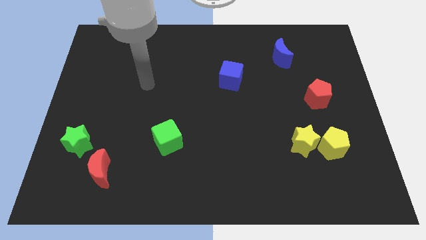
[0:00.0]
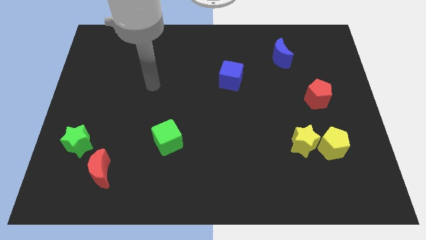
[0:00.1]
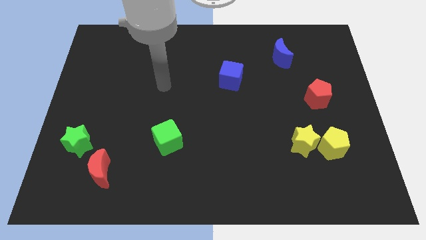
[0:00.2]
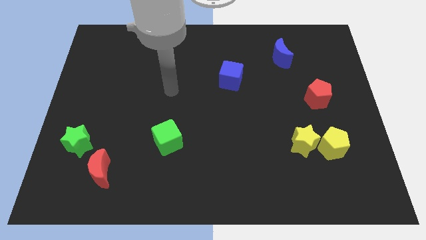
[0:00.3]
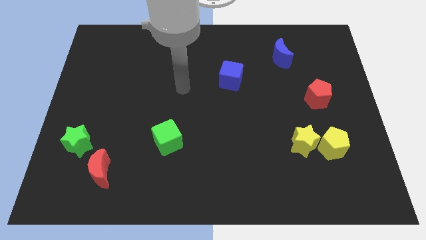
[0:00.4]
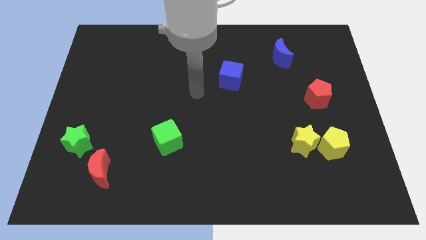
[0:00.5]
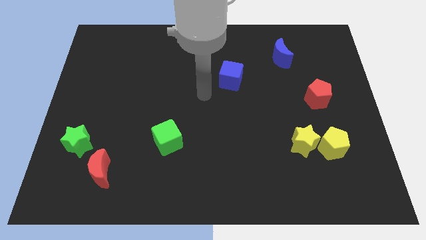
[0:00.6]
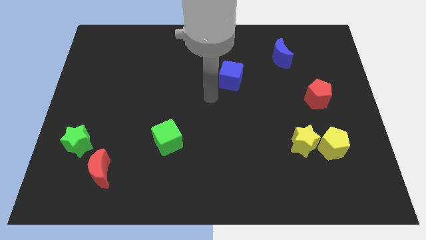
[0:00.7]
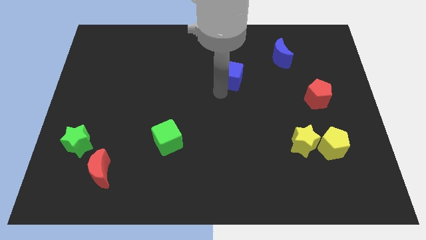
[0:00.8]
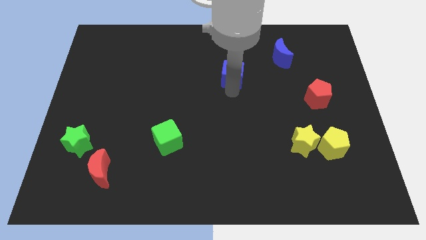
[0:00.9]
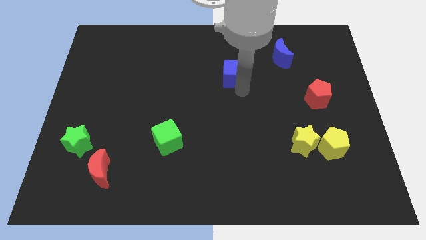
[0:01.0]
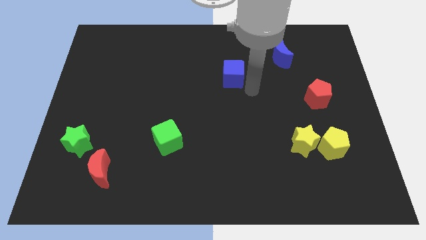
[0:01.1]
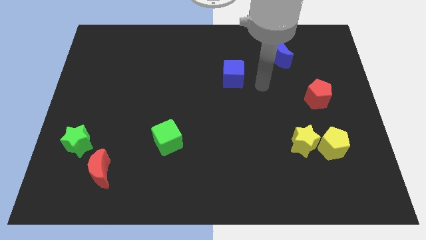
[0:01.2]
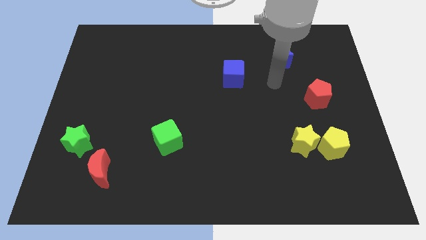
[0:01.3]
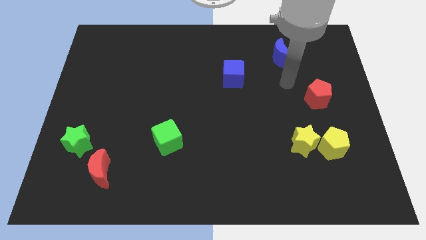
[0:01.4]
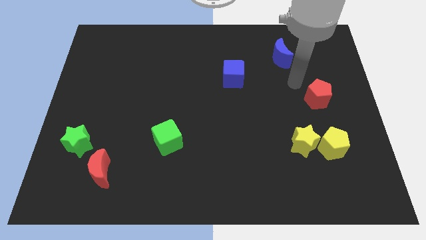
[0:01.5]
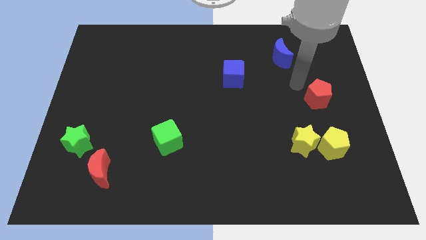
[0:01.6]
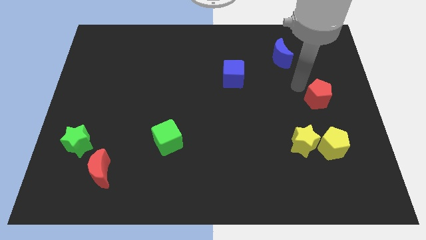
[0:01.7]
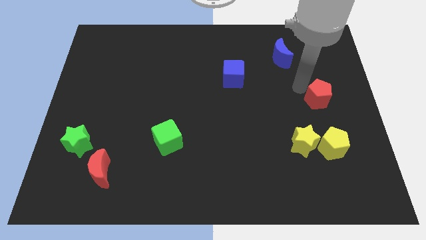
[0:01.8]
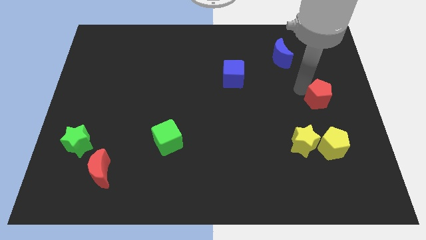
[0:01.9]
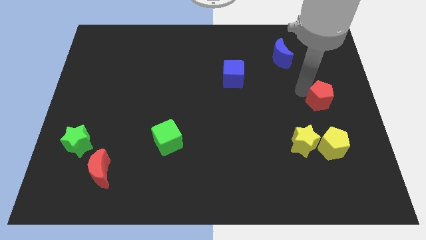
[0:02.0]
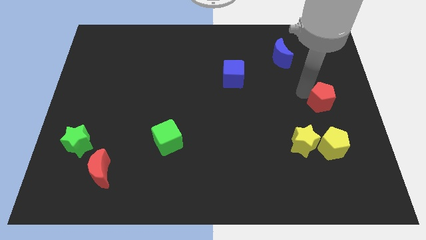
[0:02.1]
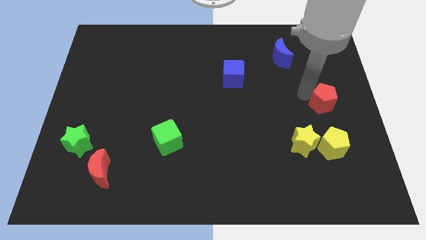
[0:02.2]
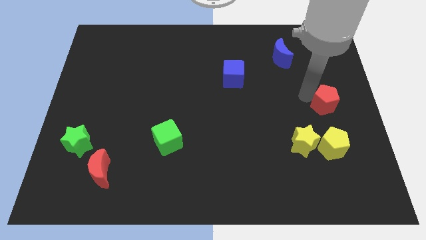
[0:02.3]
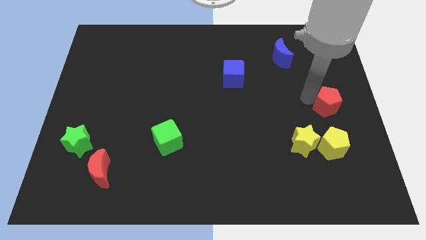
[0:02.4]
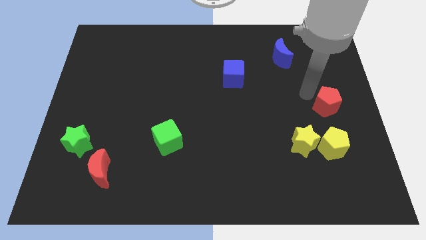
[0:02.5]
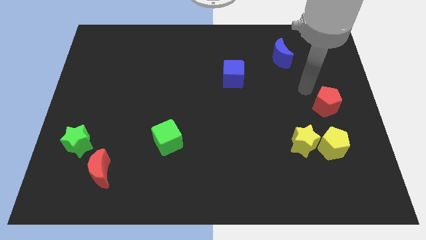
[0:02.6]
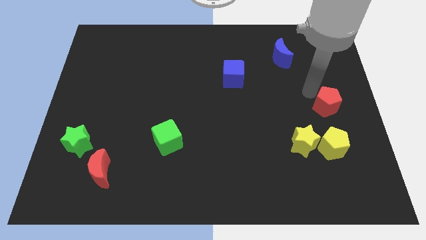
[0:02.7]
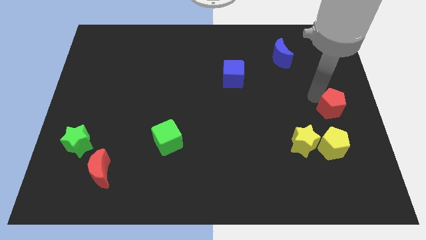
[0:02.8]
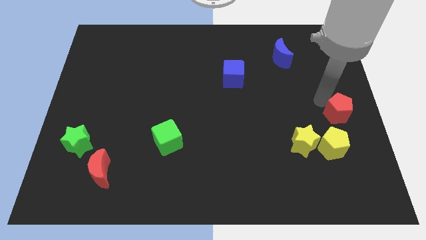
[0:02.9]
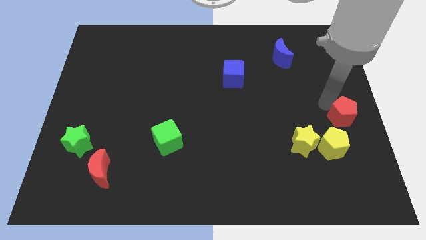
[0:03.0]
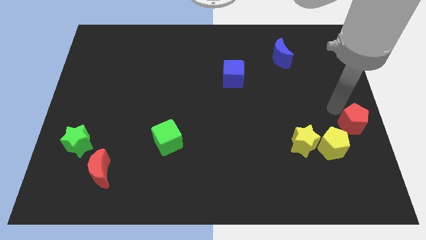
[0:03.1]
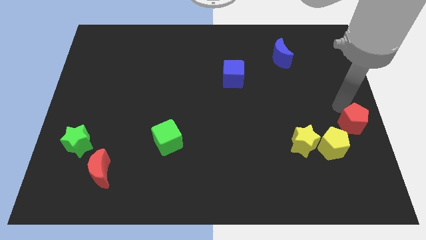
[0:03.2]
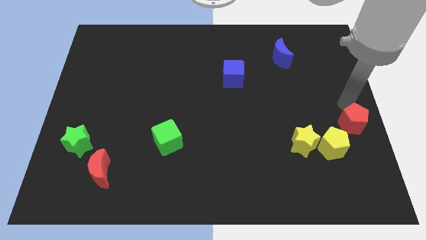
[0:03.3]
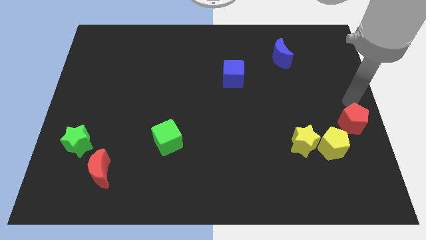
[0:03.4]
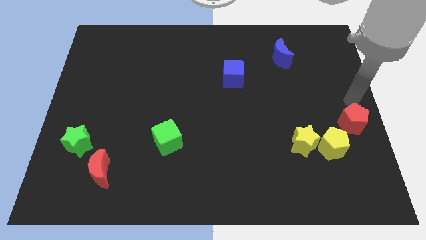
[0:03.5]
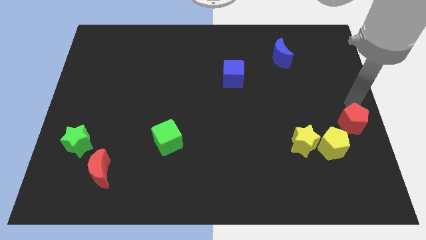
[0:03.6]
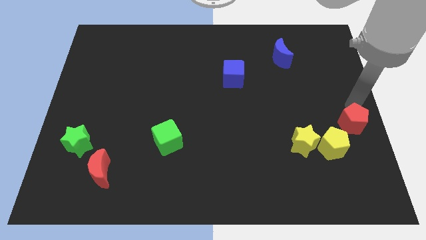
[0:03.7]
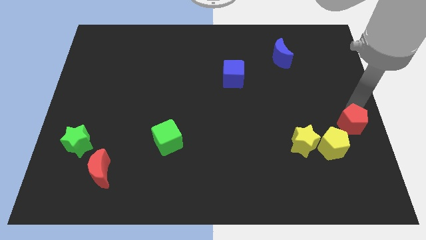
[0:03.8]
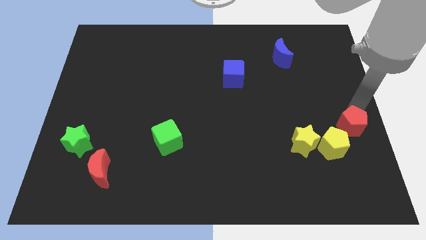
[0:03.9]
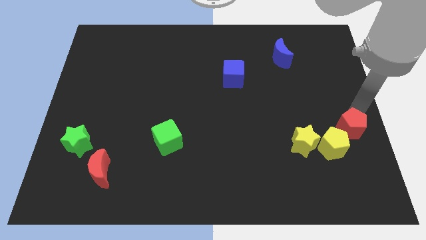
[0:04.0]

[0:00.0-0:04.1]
slide the red pentagon down a bit

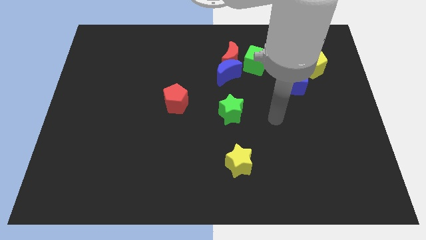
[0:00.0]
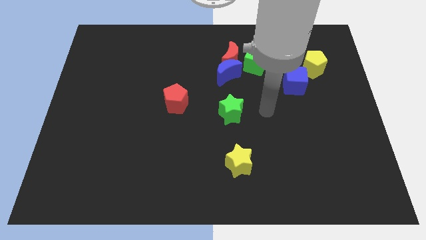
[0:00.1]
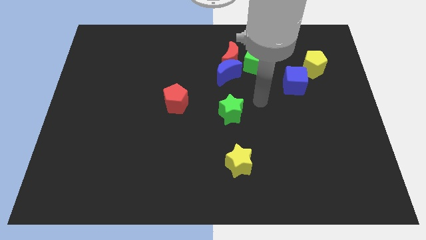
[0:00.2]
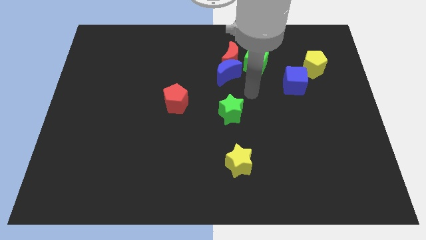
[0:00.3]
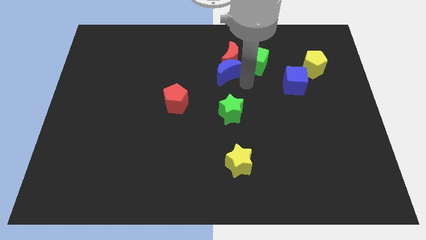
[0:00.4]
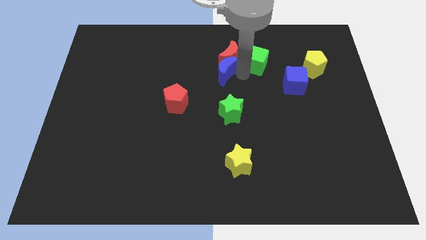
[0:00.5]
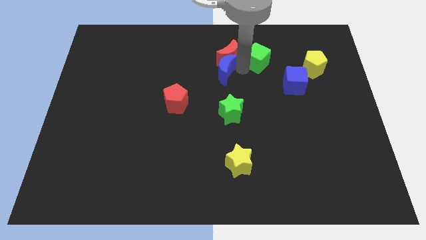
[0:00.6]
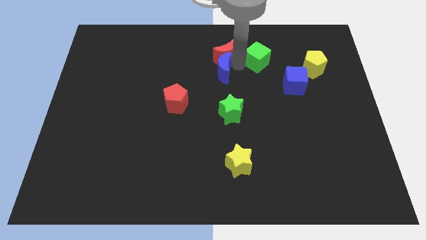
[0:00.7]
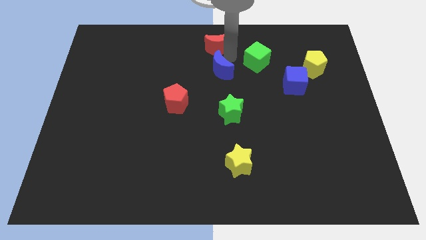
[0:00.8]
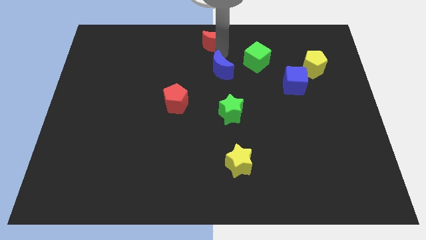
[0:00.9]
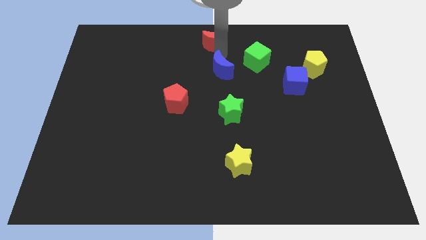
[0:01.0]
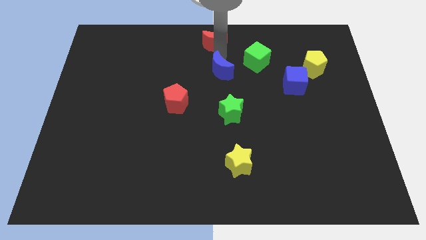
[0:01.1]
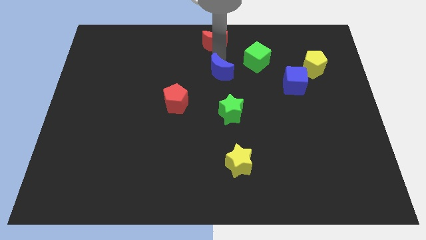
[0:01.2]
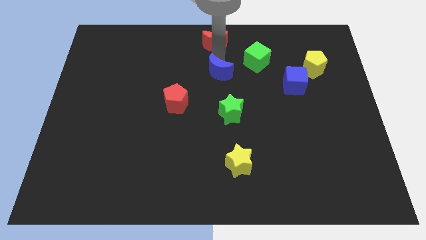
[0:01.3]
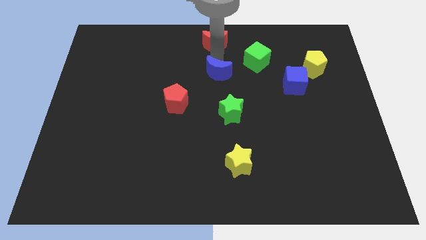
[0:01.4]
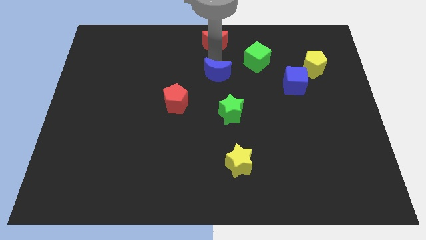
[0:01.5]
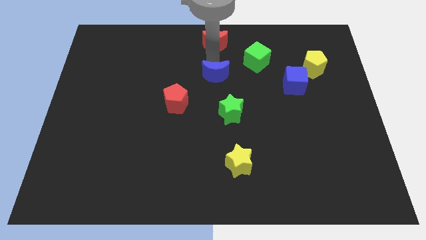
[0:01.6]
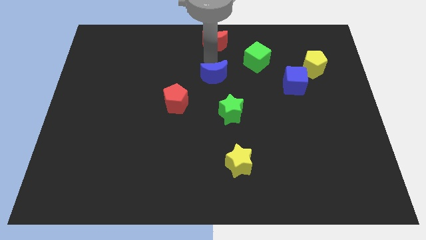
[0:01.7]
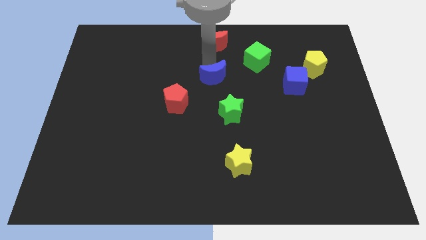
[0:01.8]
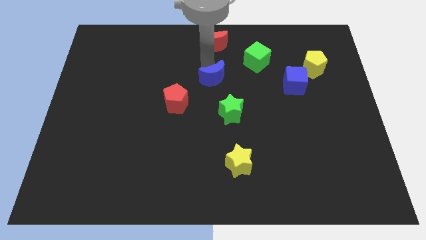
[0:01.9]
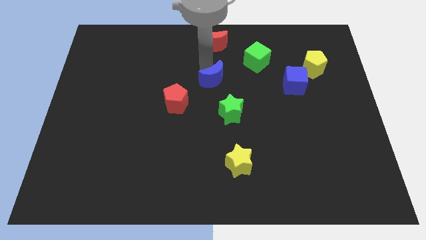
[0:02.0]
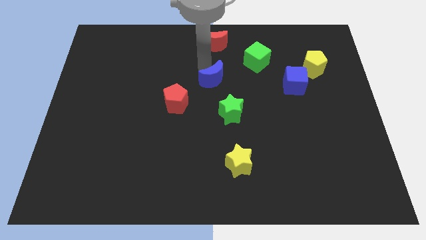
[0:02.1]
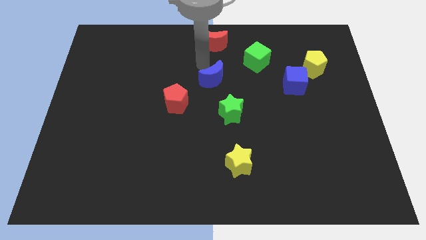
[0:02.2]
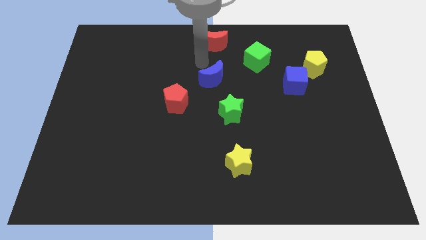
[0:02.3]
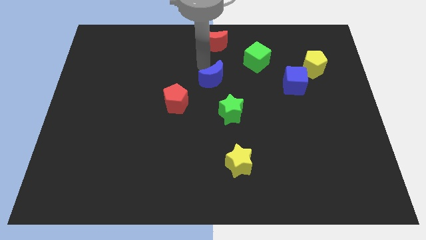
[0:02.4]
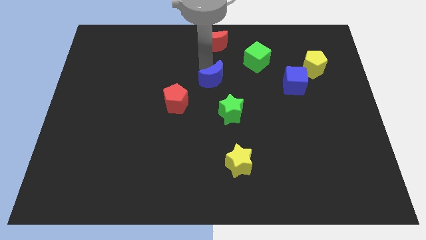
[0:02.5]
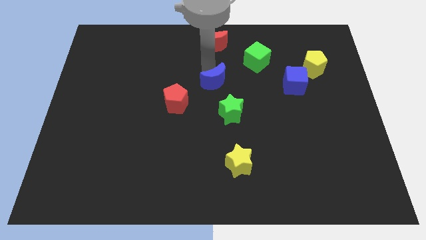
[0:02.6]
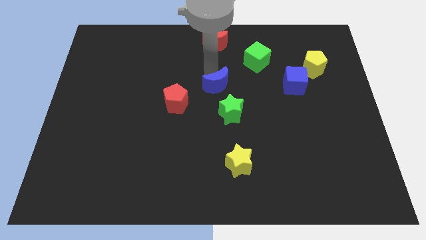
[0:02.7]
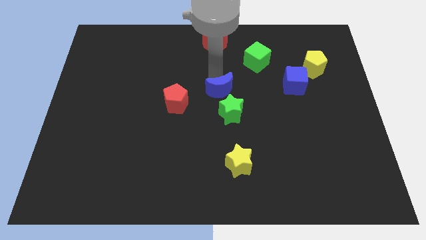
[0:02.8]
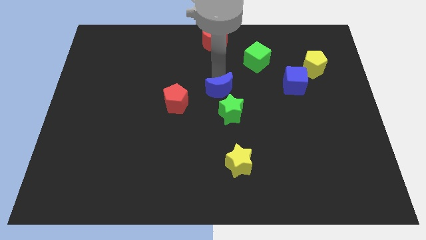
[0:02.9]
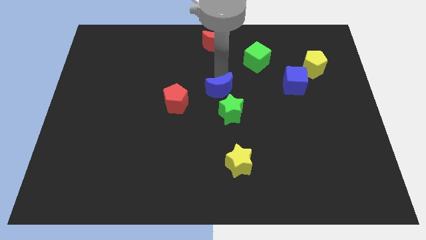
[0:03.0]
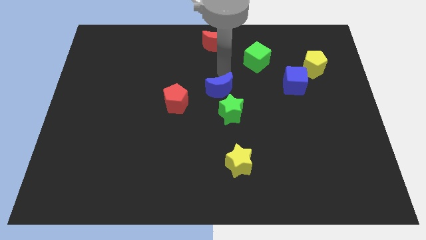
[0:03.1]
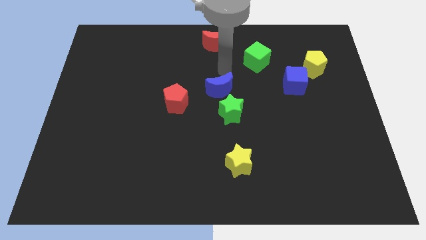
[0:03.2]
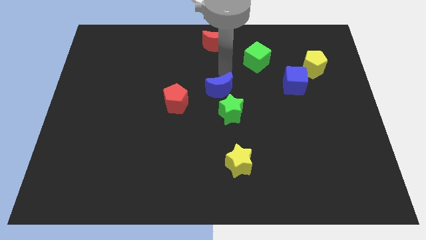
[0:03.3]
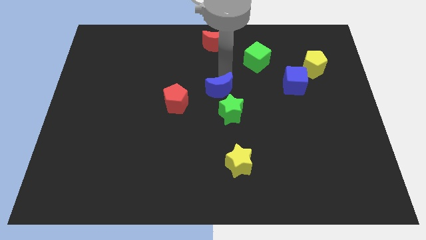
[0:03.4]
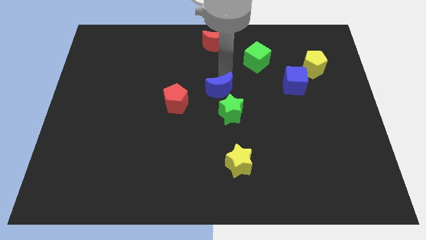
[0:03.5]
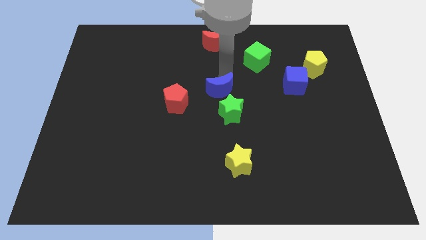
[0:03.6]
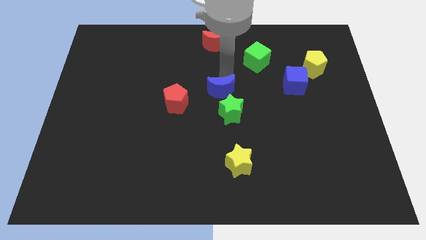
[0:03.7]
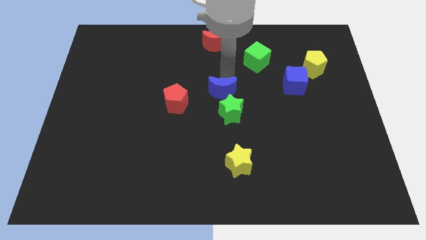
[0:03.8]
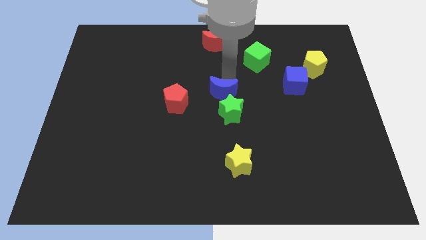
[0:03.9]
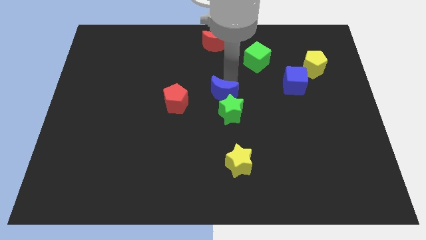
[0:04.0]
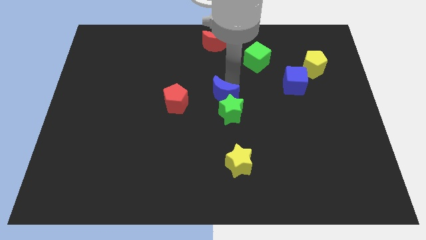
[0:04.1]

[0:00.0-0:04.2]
slide the blue moon a little downwards
